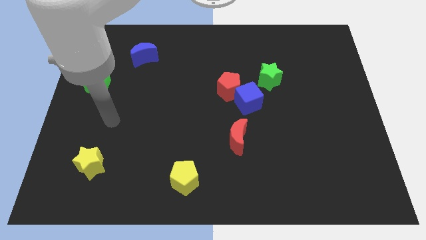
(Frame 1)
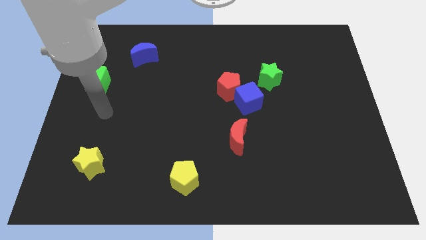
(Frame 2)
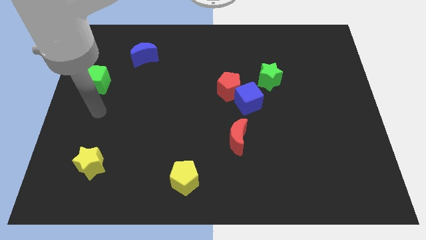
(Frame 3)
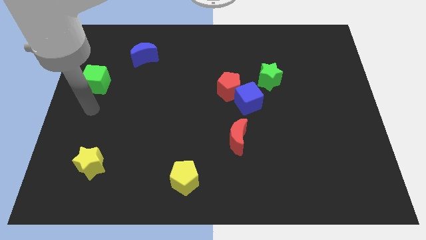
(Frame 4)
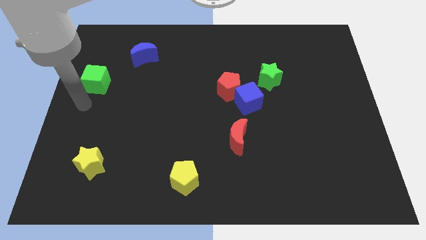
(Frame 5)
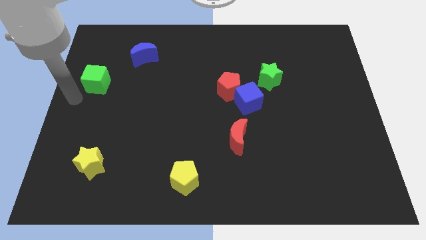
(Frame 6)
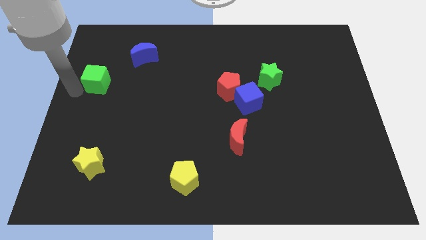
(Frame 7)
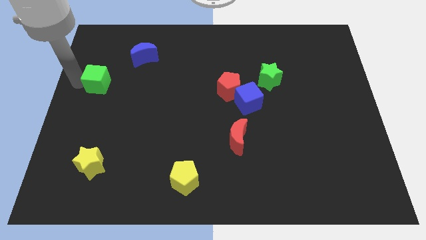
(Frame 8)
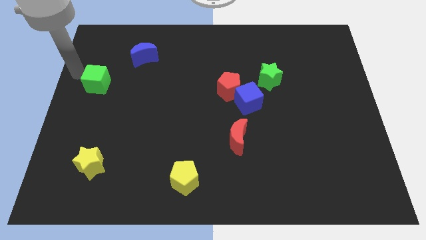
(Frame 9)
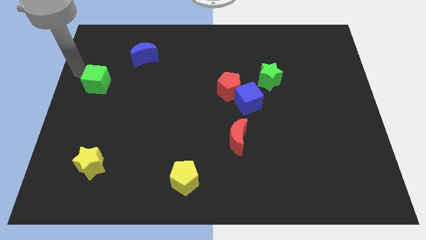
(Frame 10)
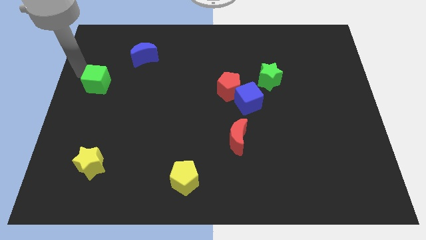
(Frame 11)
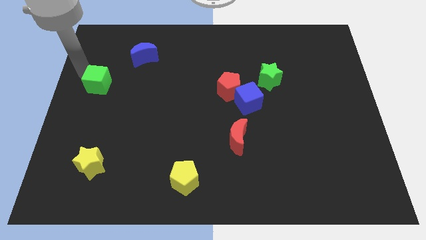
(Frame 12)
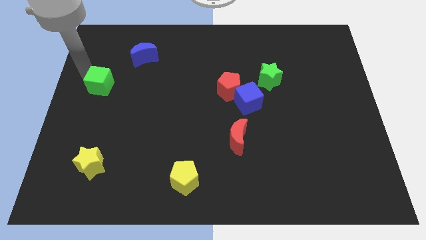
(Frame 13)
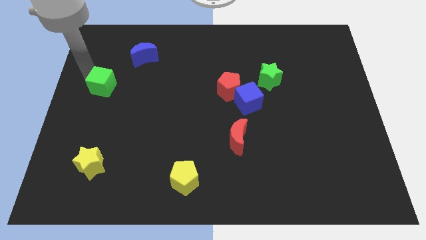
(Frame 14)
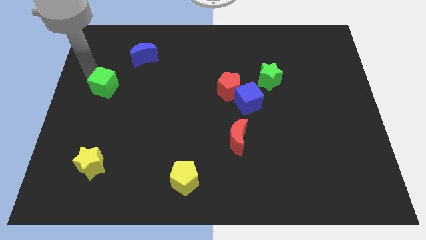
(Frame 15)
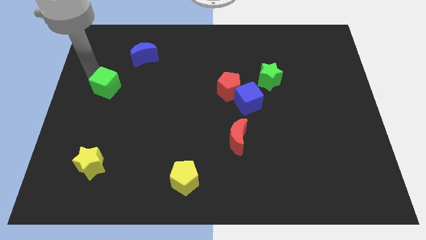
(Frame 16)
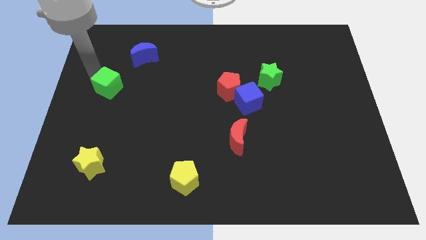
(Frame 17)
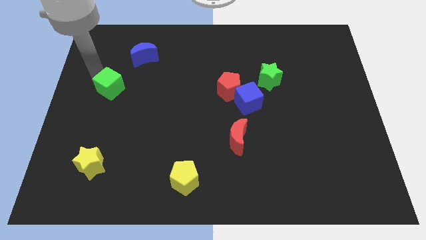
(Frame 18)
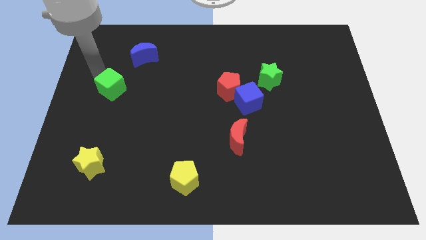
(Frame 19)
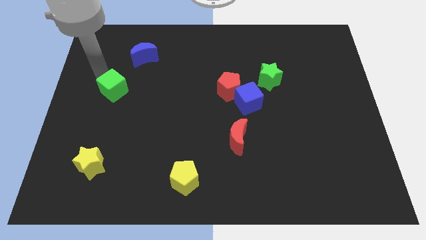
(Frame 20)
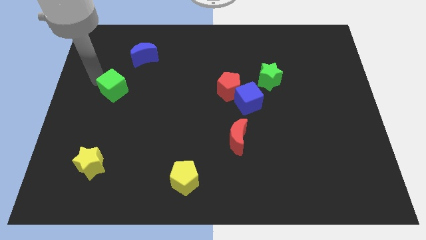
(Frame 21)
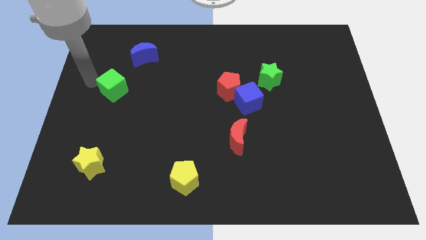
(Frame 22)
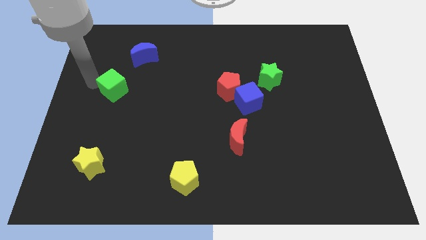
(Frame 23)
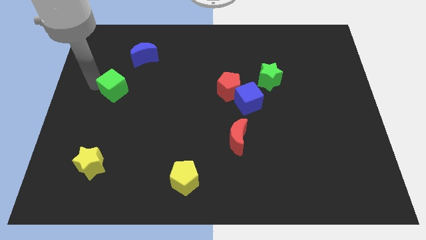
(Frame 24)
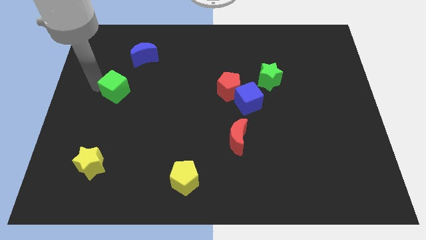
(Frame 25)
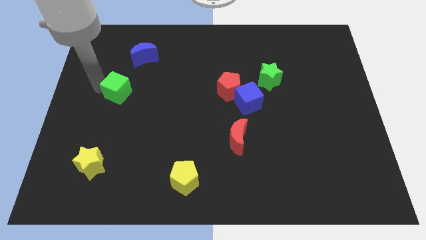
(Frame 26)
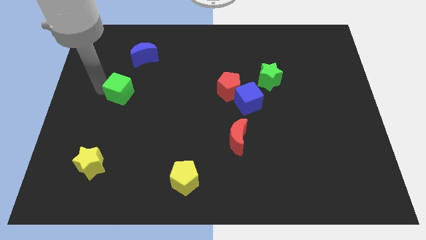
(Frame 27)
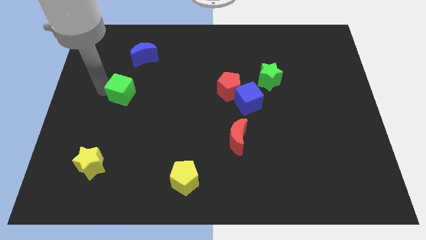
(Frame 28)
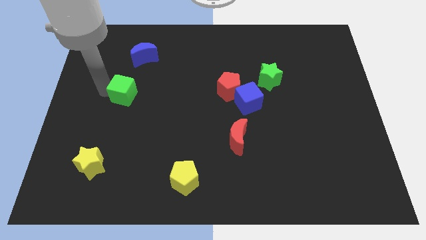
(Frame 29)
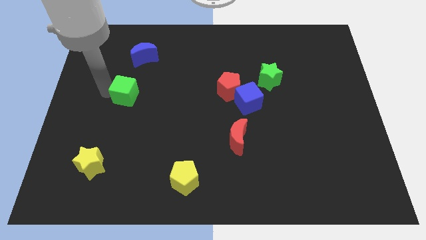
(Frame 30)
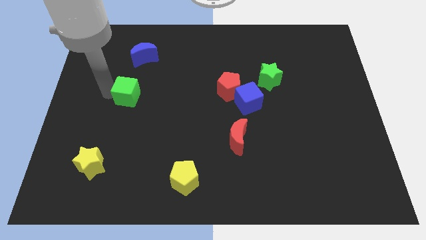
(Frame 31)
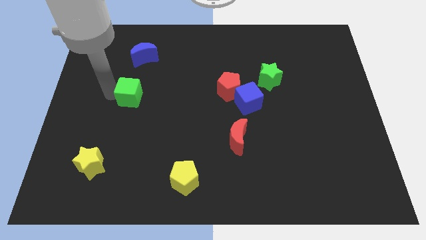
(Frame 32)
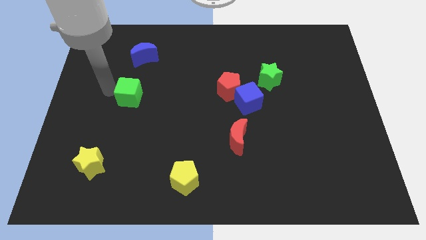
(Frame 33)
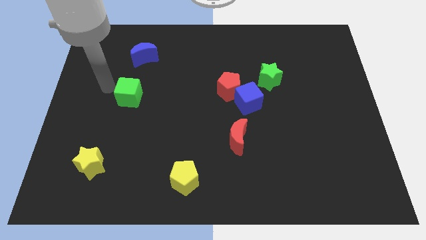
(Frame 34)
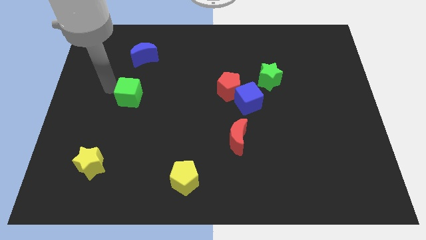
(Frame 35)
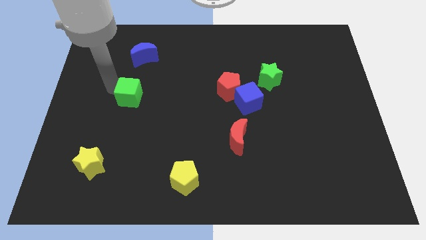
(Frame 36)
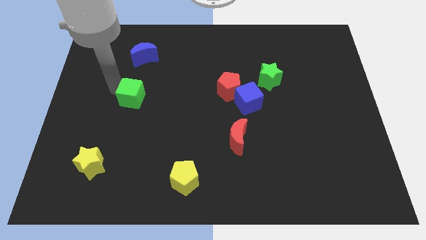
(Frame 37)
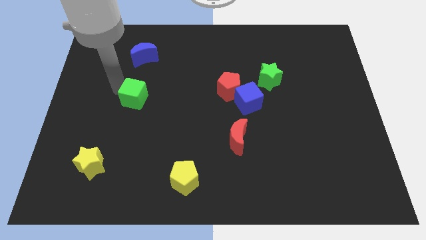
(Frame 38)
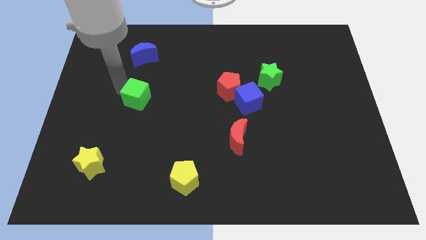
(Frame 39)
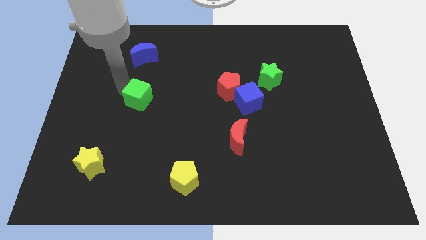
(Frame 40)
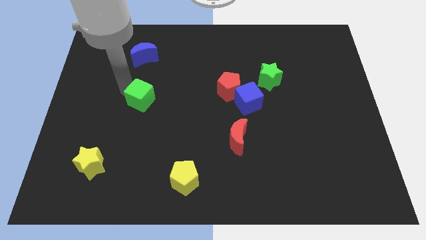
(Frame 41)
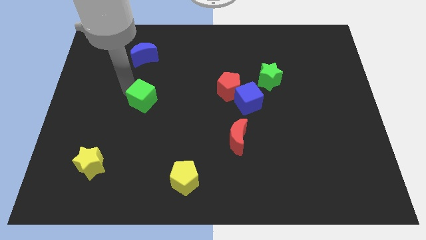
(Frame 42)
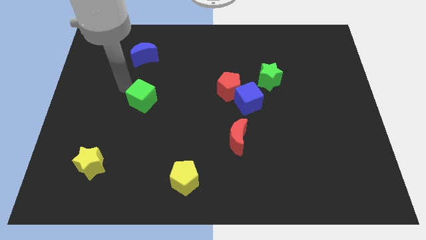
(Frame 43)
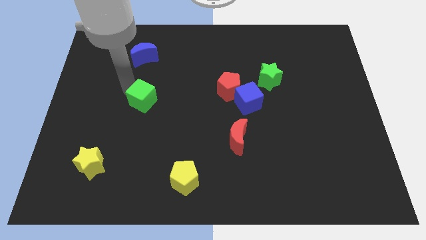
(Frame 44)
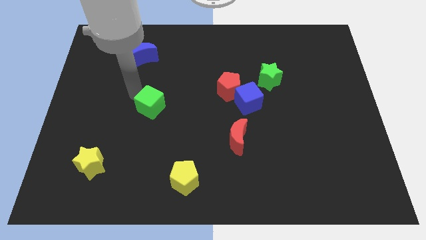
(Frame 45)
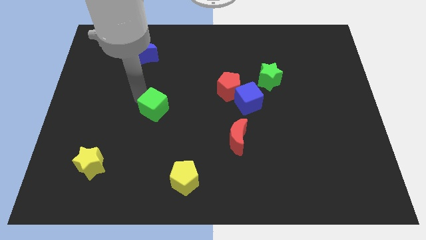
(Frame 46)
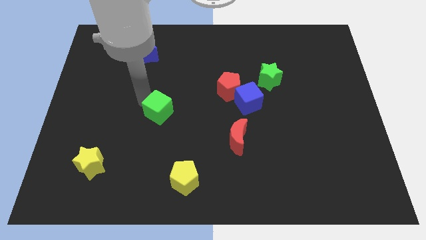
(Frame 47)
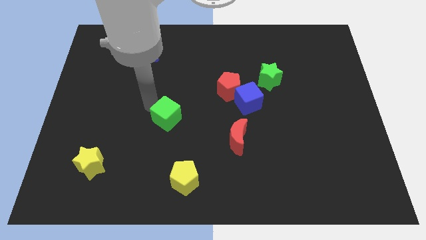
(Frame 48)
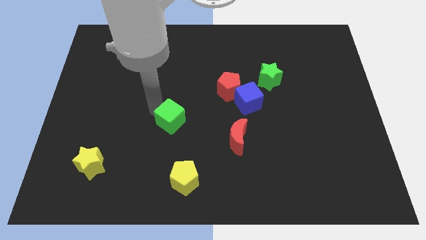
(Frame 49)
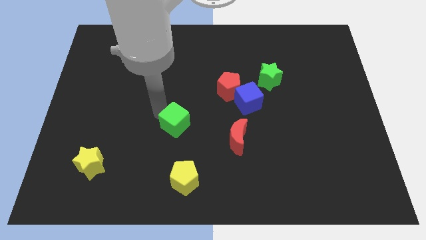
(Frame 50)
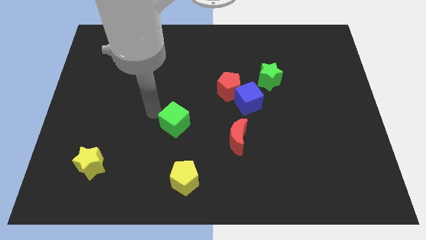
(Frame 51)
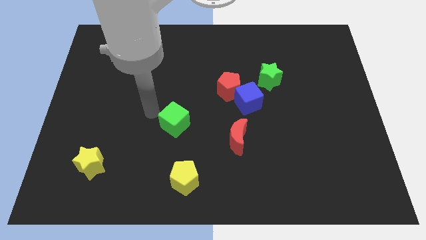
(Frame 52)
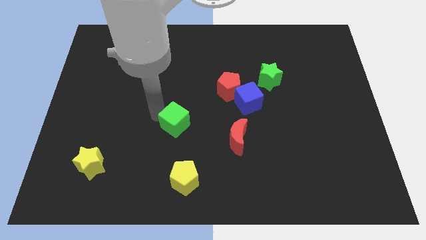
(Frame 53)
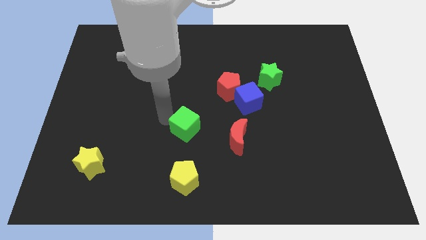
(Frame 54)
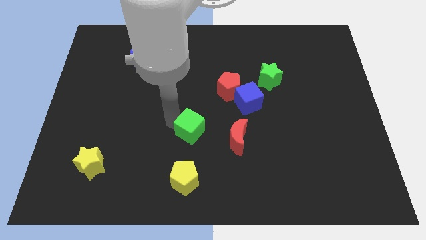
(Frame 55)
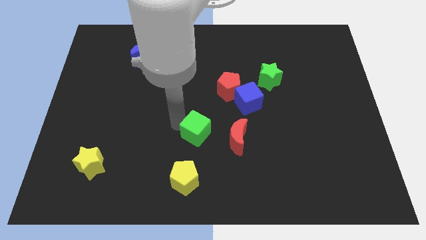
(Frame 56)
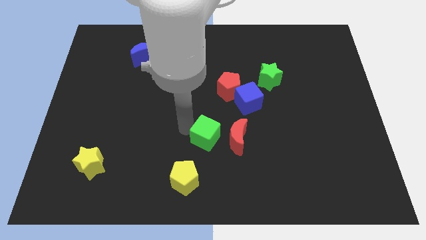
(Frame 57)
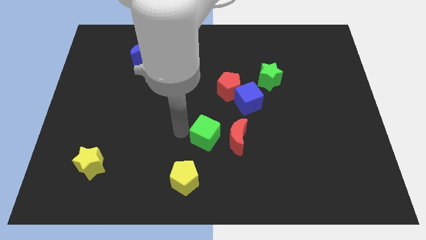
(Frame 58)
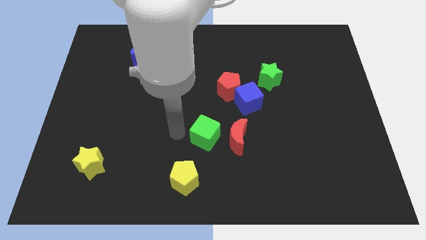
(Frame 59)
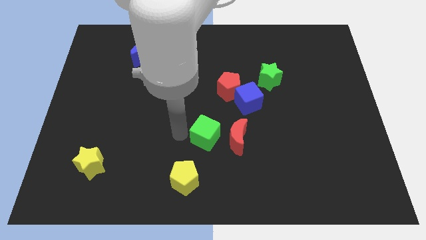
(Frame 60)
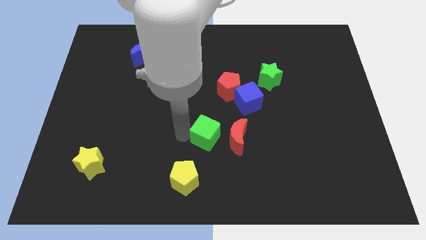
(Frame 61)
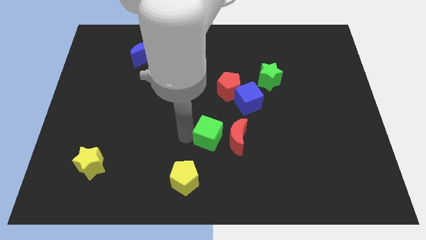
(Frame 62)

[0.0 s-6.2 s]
slide the green cube to the red moon

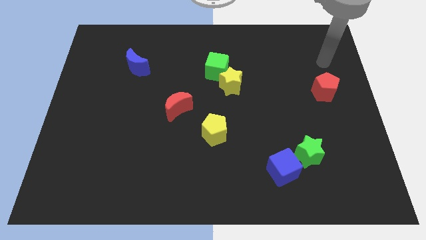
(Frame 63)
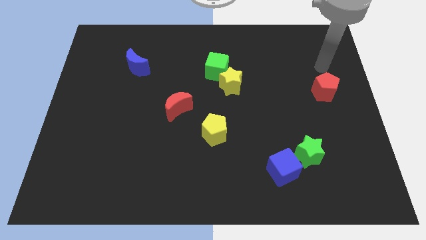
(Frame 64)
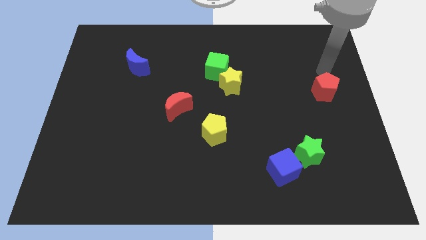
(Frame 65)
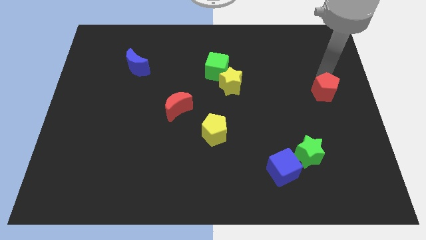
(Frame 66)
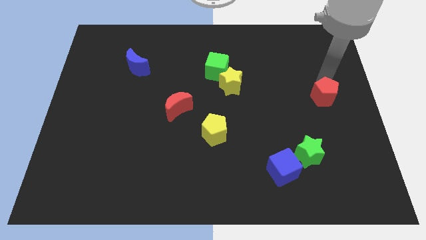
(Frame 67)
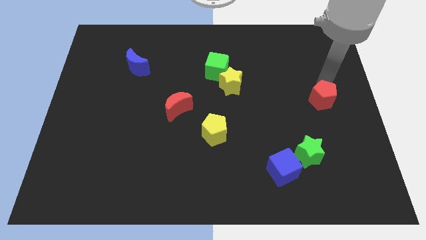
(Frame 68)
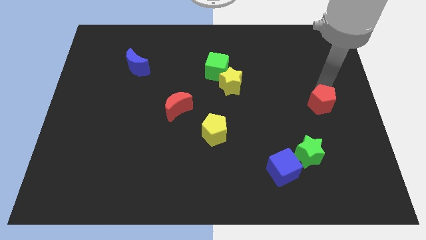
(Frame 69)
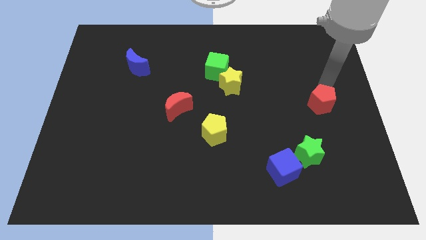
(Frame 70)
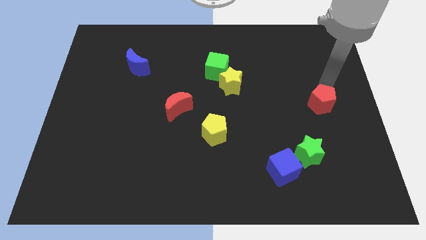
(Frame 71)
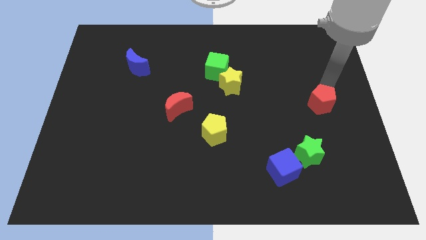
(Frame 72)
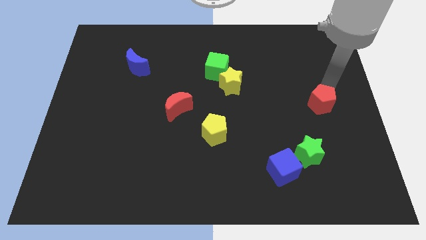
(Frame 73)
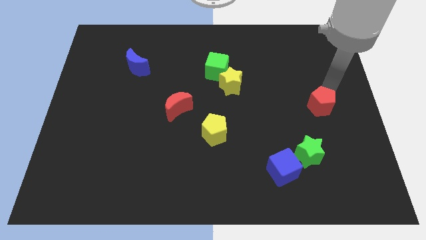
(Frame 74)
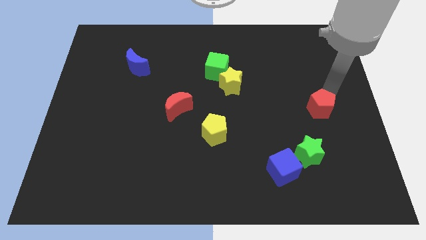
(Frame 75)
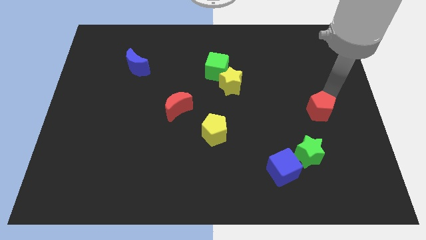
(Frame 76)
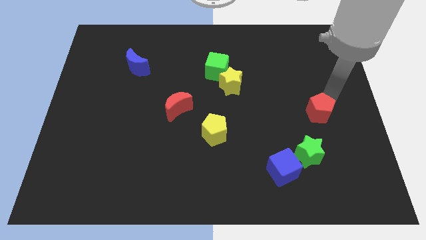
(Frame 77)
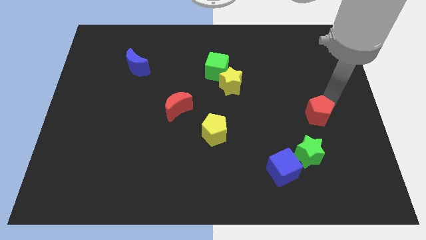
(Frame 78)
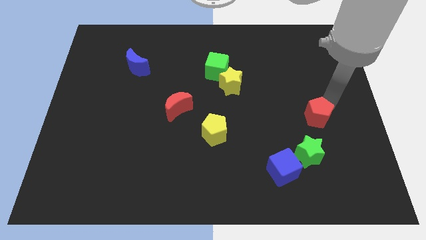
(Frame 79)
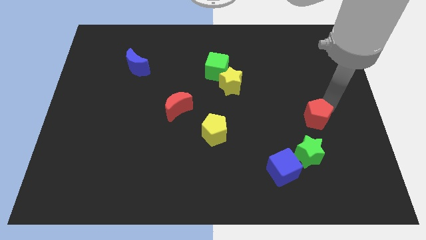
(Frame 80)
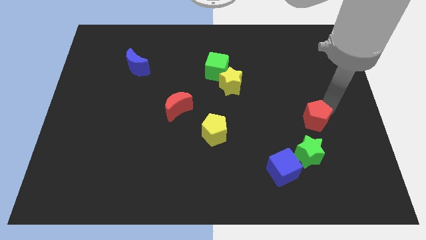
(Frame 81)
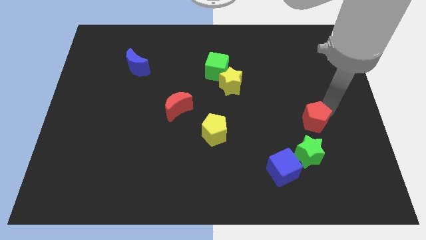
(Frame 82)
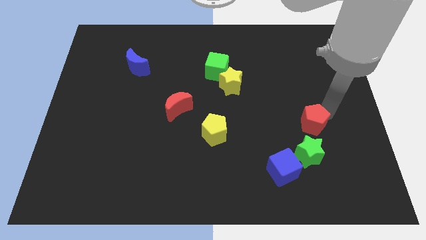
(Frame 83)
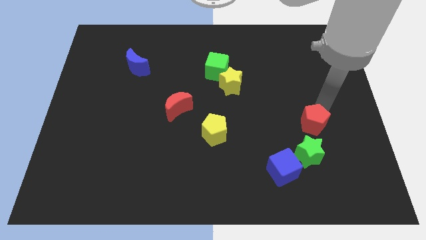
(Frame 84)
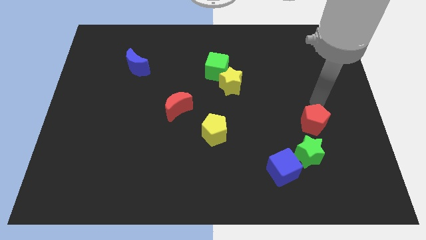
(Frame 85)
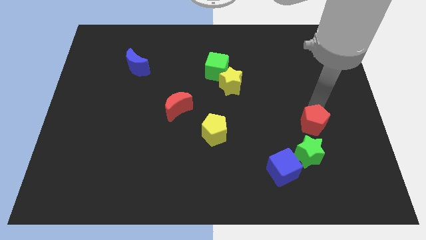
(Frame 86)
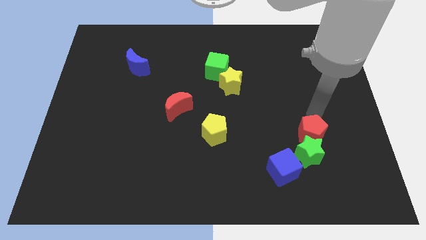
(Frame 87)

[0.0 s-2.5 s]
put the red pentagon next to the green star
